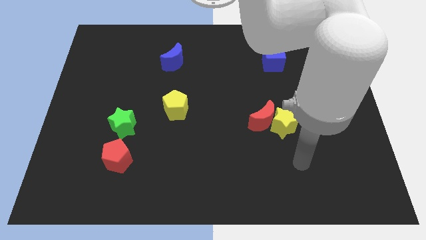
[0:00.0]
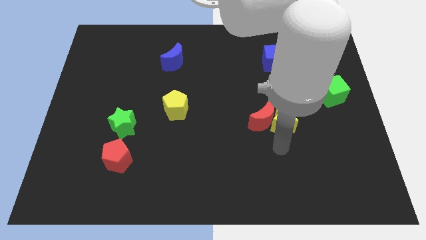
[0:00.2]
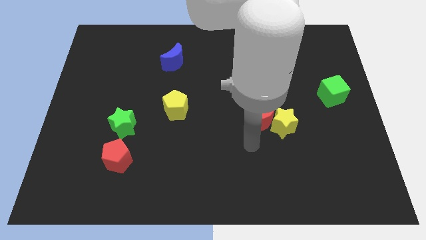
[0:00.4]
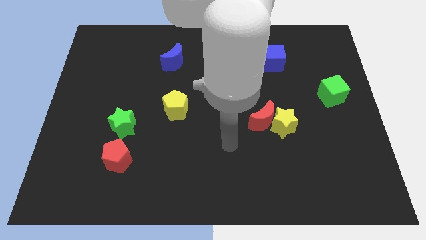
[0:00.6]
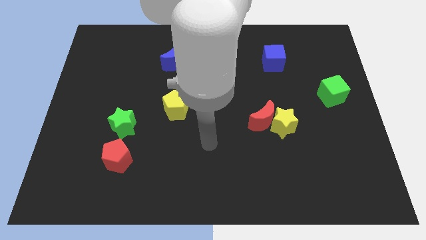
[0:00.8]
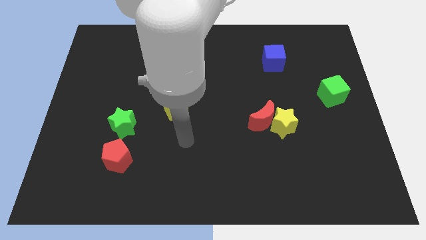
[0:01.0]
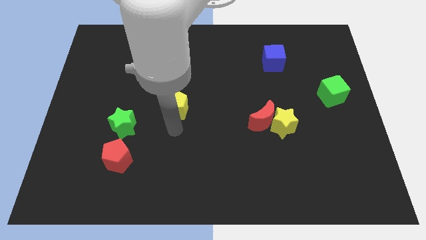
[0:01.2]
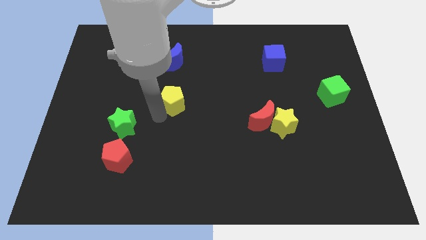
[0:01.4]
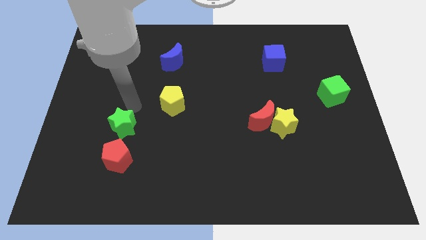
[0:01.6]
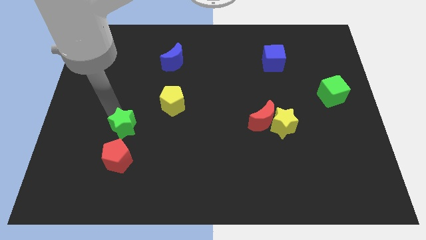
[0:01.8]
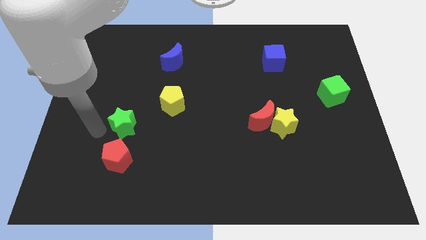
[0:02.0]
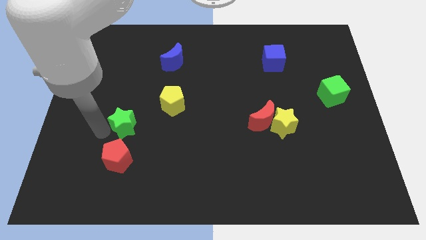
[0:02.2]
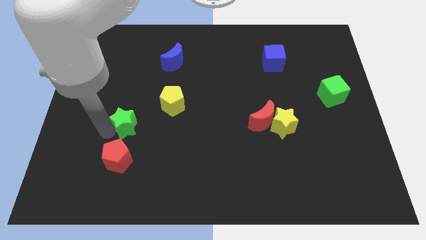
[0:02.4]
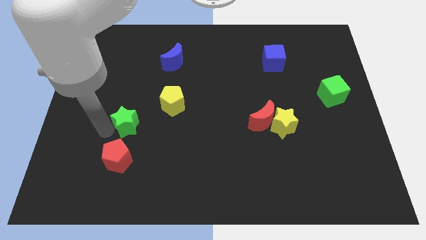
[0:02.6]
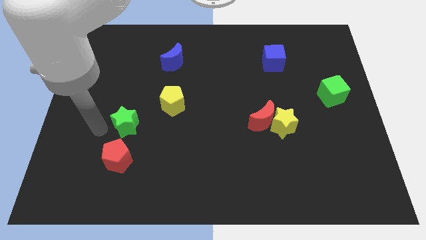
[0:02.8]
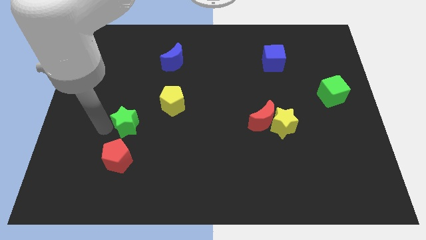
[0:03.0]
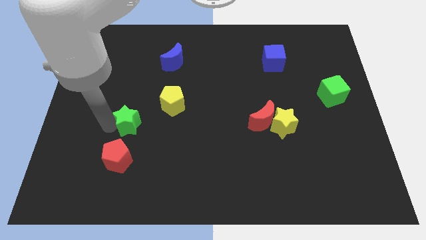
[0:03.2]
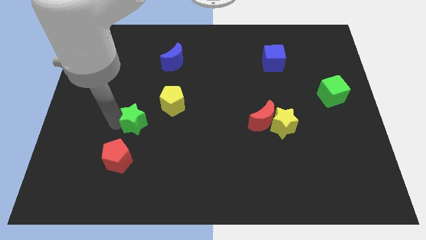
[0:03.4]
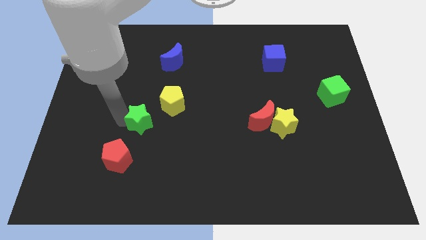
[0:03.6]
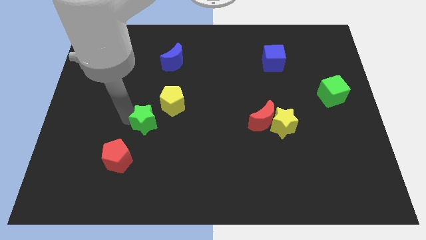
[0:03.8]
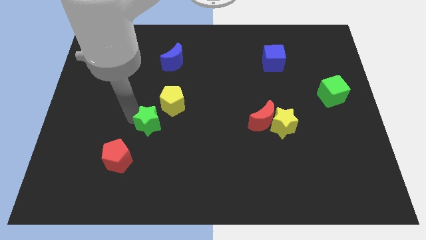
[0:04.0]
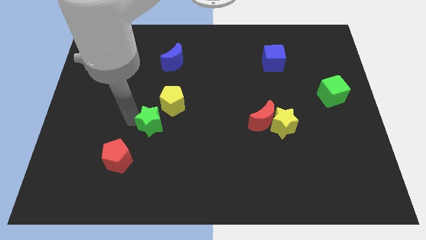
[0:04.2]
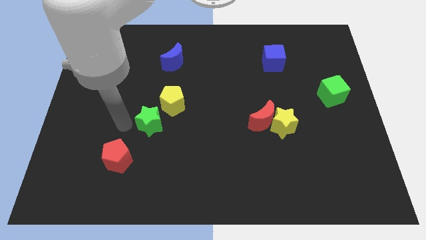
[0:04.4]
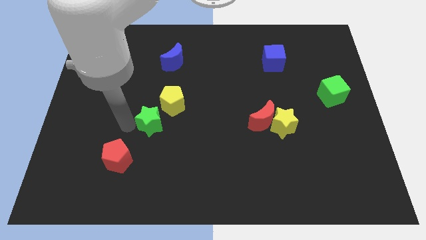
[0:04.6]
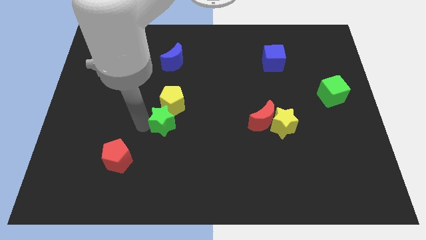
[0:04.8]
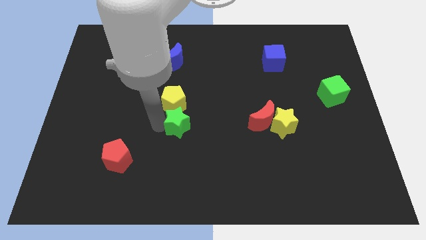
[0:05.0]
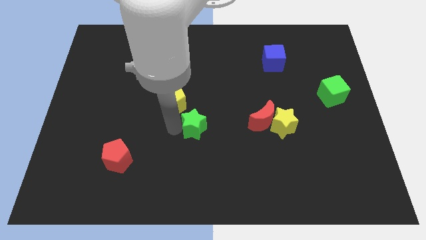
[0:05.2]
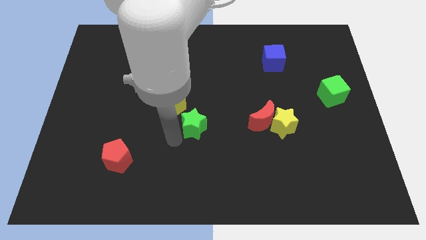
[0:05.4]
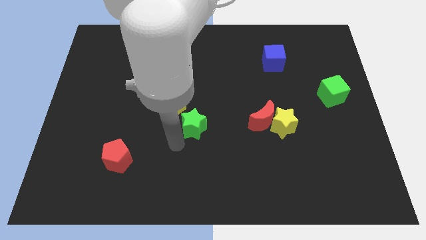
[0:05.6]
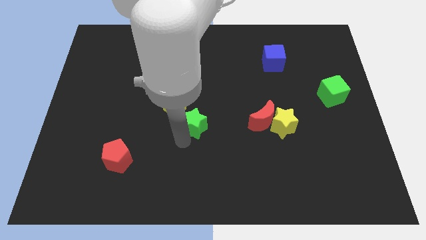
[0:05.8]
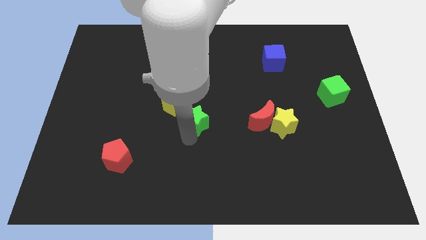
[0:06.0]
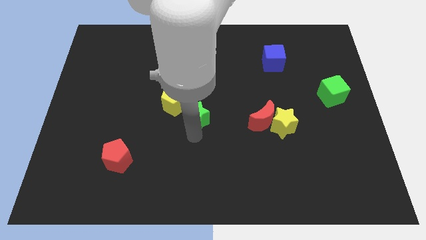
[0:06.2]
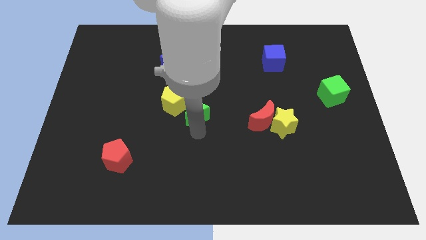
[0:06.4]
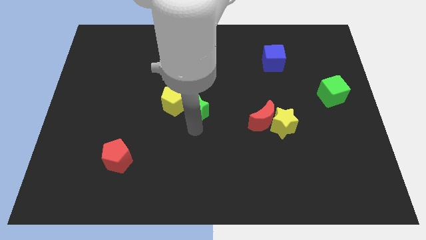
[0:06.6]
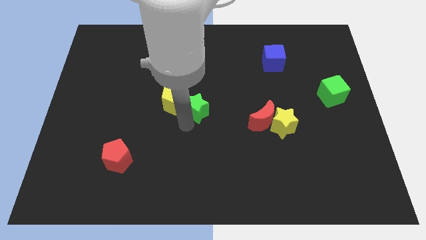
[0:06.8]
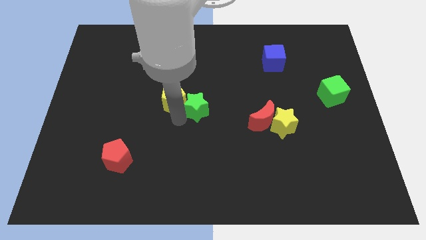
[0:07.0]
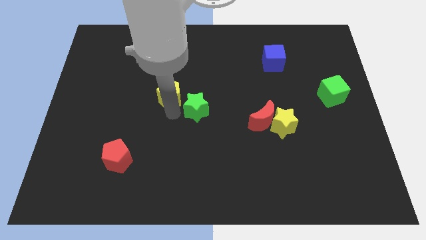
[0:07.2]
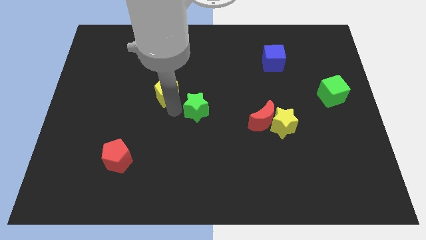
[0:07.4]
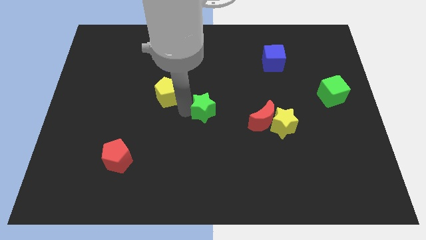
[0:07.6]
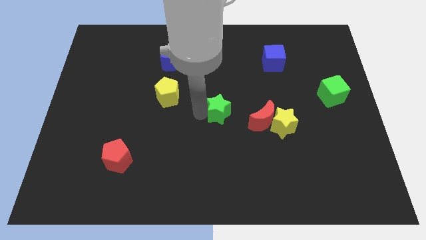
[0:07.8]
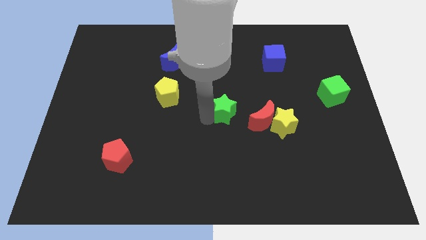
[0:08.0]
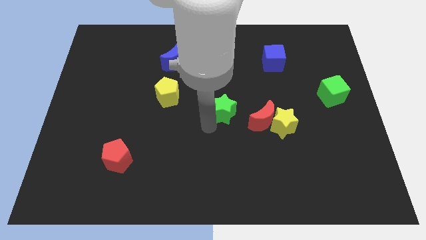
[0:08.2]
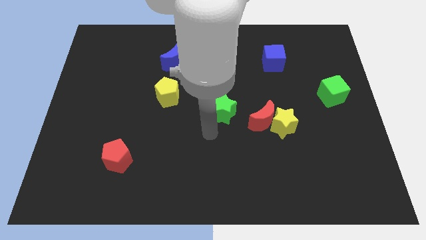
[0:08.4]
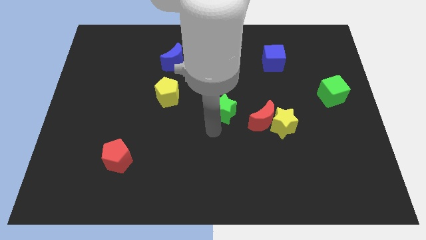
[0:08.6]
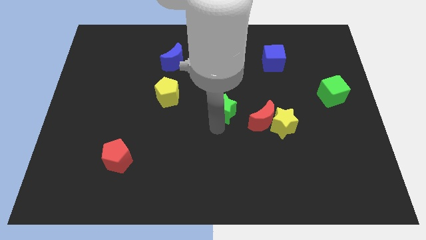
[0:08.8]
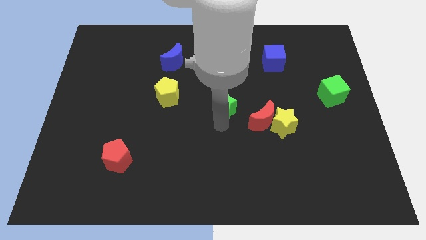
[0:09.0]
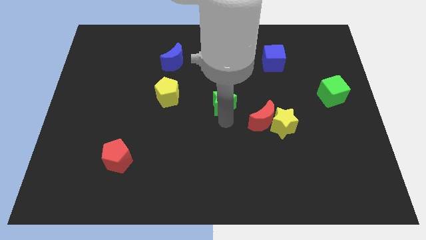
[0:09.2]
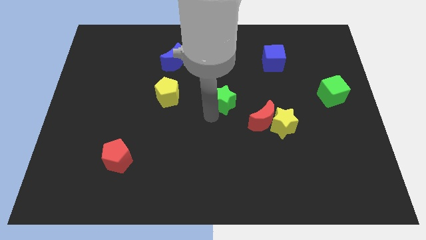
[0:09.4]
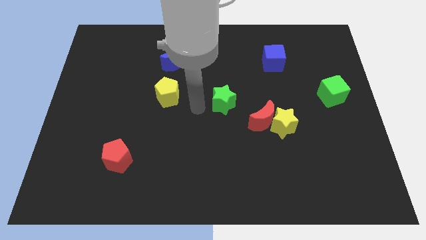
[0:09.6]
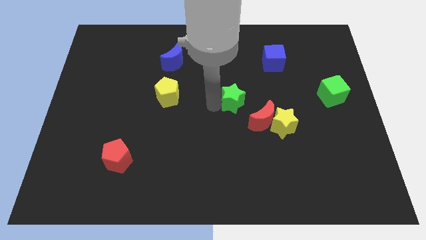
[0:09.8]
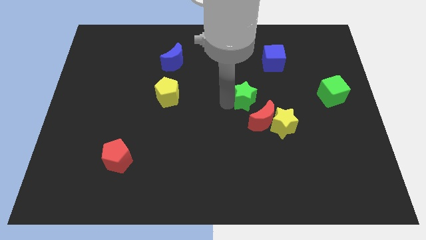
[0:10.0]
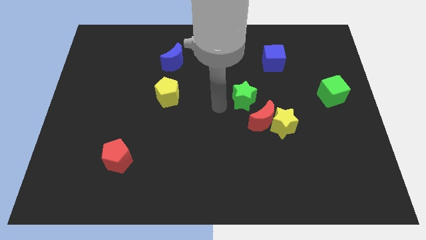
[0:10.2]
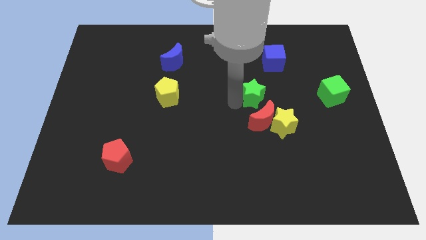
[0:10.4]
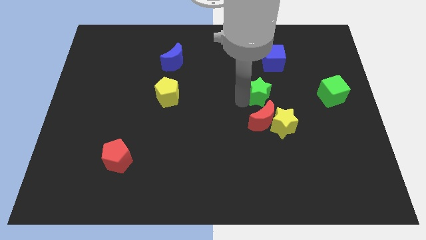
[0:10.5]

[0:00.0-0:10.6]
put the green star to the bottom of the blue cube

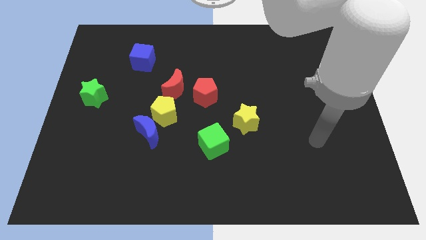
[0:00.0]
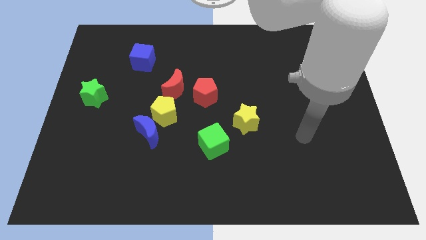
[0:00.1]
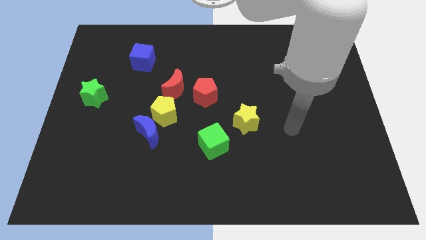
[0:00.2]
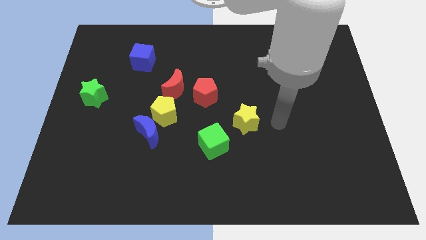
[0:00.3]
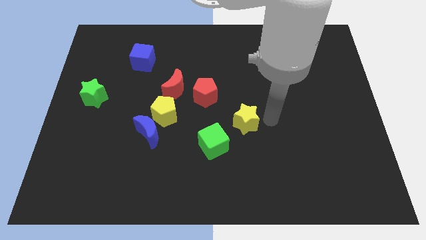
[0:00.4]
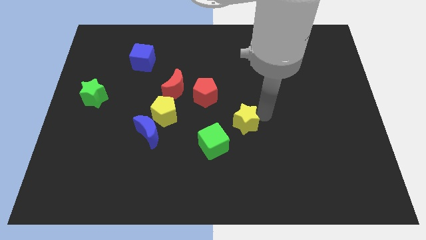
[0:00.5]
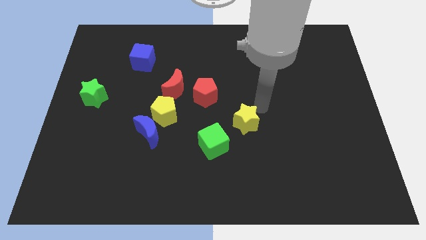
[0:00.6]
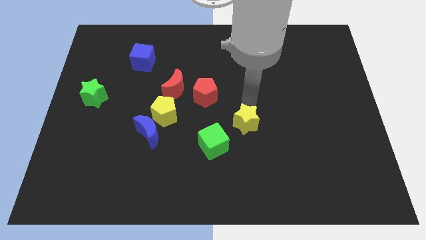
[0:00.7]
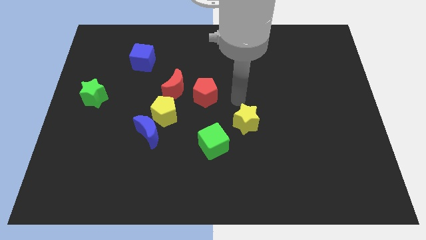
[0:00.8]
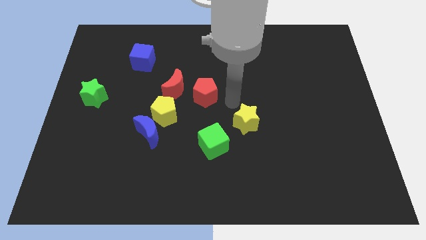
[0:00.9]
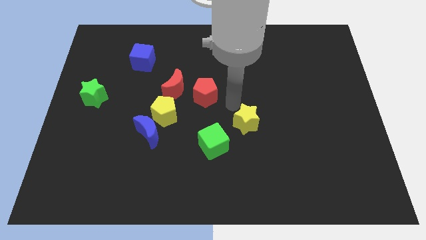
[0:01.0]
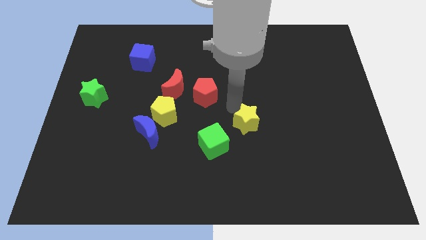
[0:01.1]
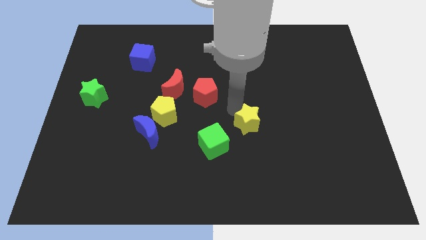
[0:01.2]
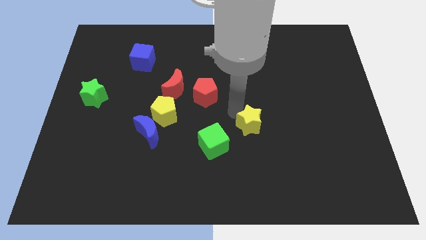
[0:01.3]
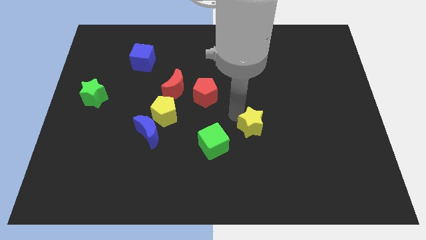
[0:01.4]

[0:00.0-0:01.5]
push the yellow star just right of the green cube
